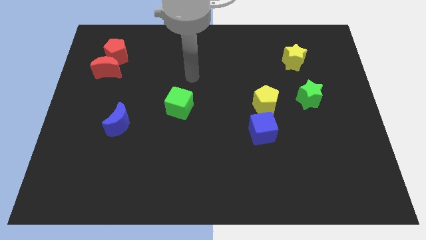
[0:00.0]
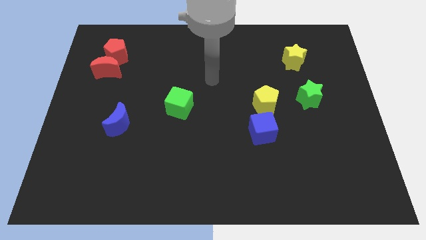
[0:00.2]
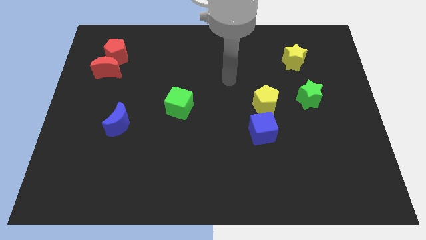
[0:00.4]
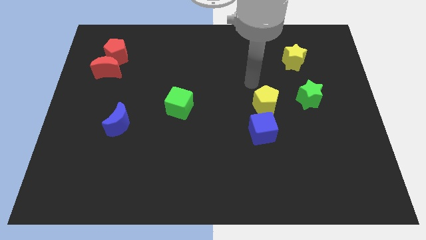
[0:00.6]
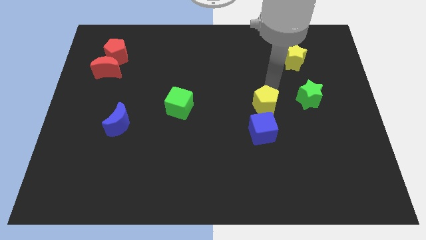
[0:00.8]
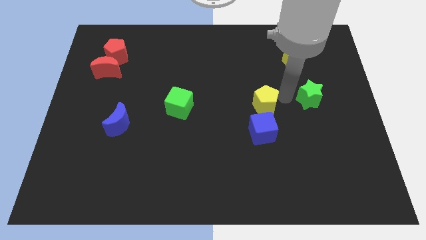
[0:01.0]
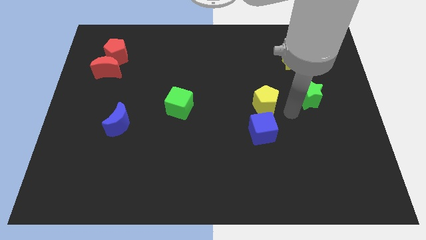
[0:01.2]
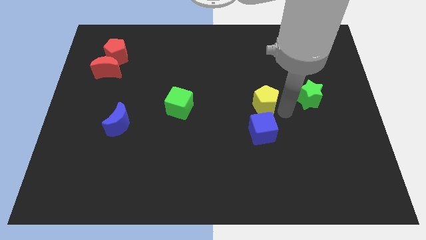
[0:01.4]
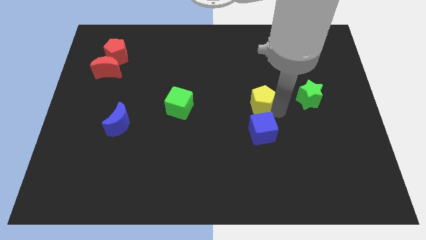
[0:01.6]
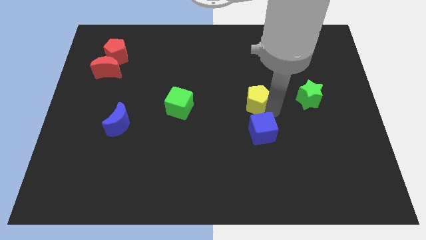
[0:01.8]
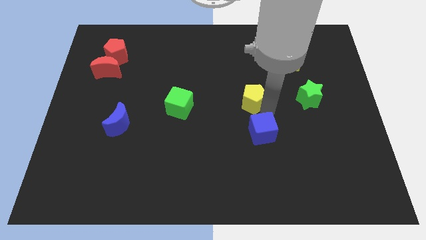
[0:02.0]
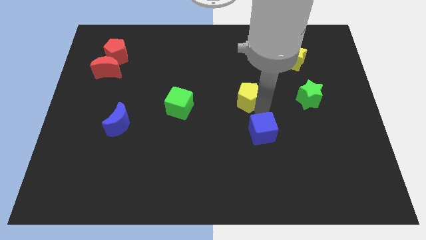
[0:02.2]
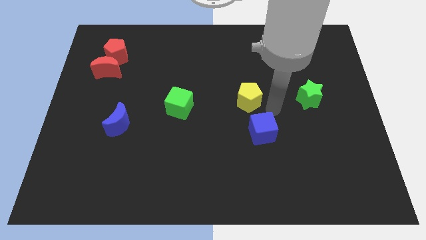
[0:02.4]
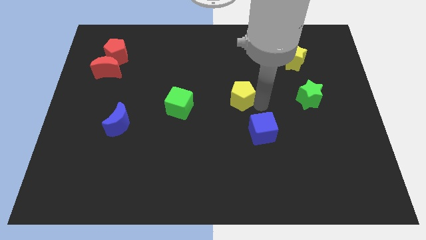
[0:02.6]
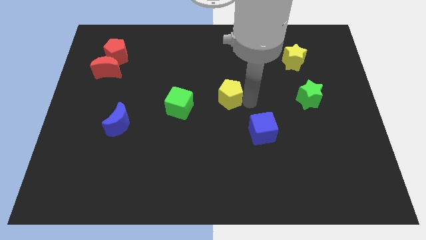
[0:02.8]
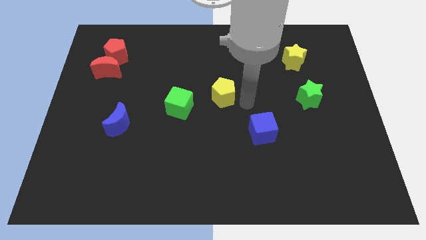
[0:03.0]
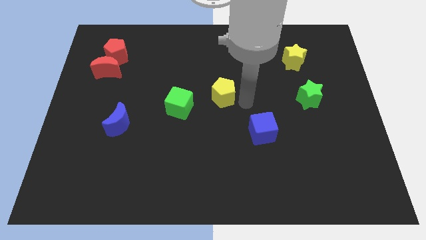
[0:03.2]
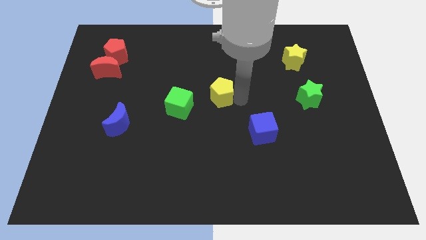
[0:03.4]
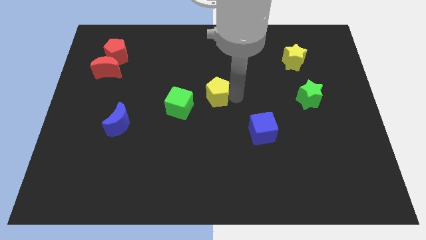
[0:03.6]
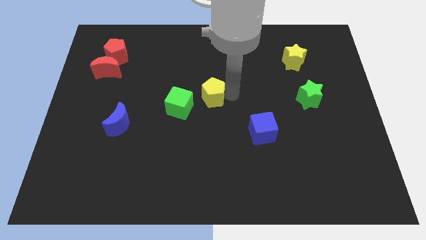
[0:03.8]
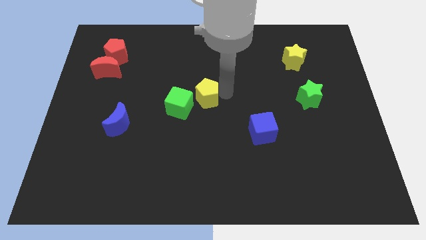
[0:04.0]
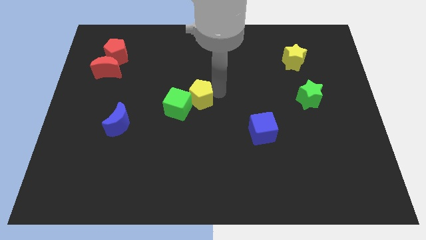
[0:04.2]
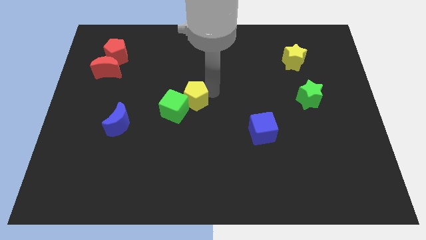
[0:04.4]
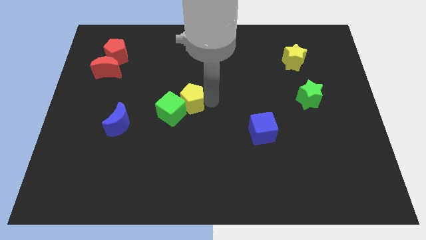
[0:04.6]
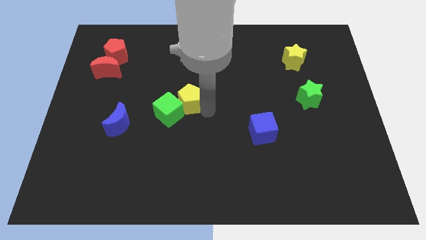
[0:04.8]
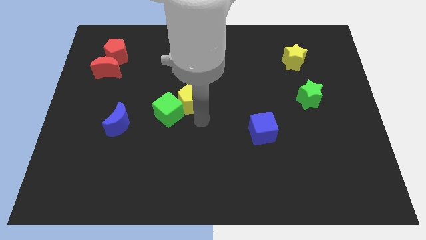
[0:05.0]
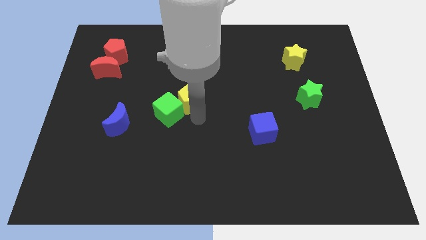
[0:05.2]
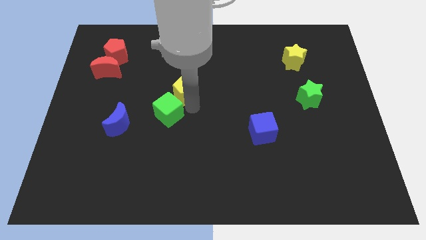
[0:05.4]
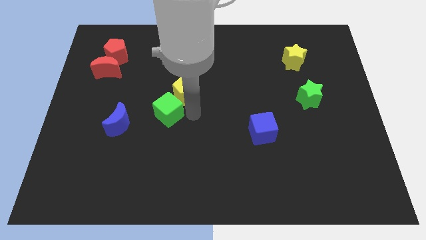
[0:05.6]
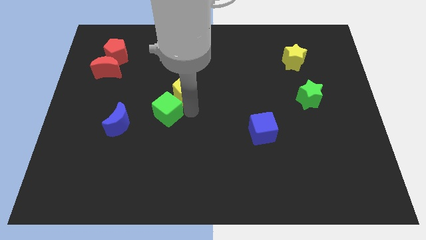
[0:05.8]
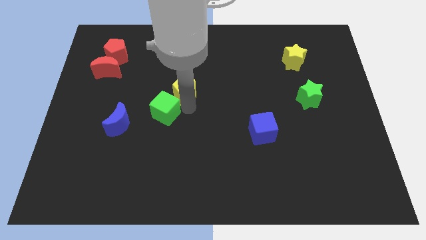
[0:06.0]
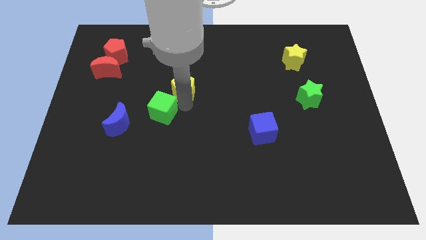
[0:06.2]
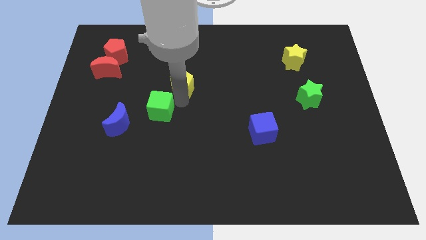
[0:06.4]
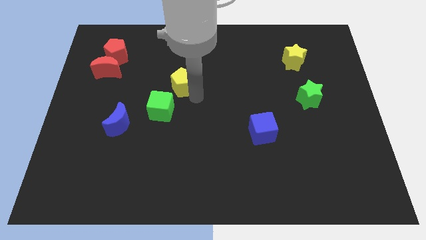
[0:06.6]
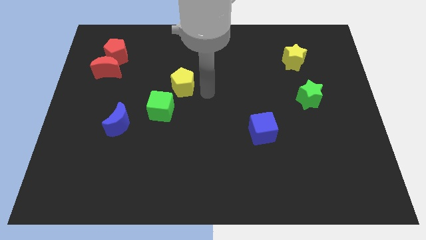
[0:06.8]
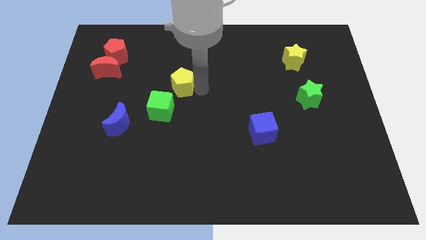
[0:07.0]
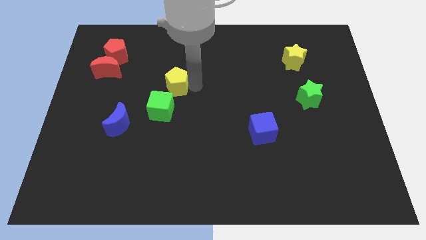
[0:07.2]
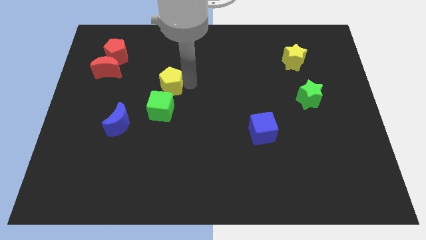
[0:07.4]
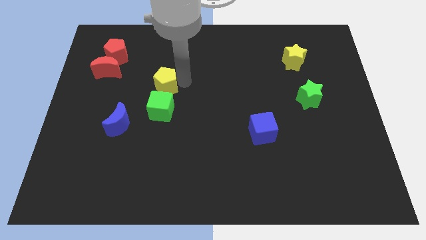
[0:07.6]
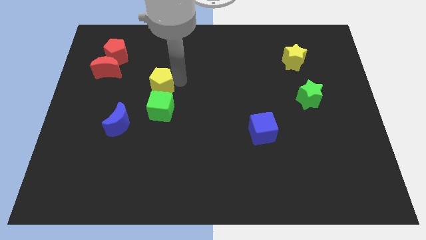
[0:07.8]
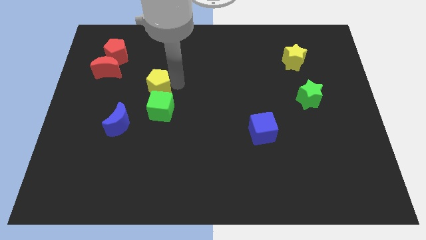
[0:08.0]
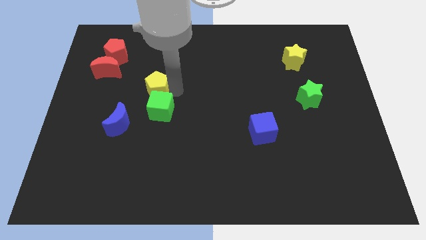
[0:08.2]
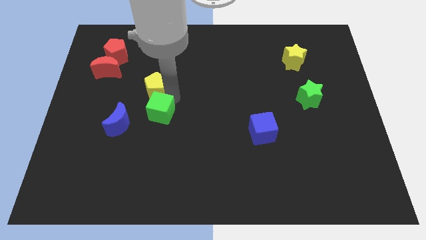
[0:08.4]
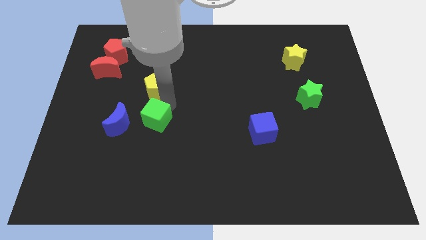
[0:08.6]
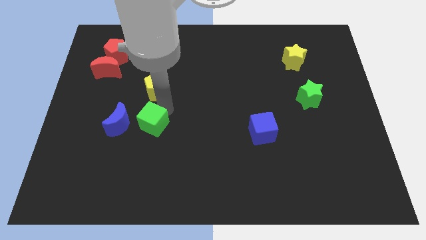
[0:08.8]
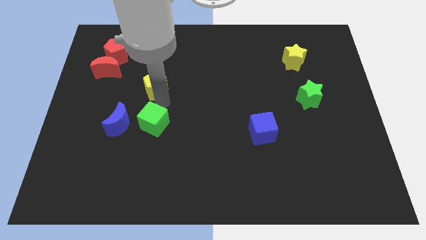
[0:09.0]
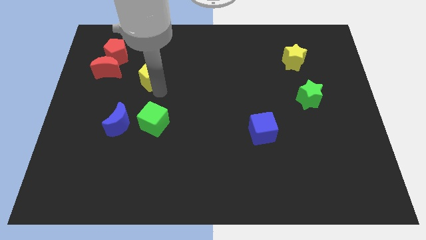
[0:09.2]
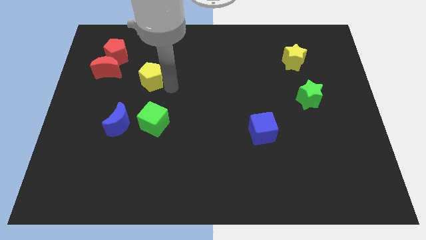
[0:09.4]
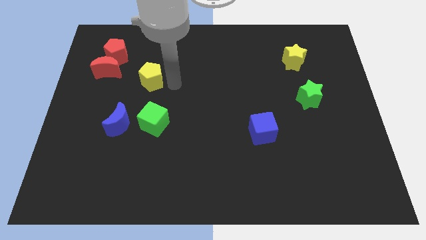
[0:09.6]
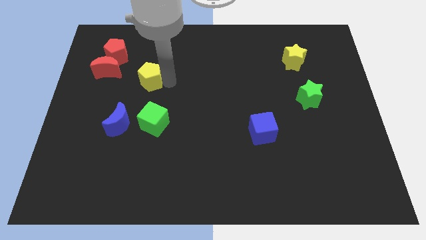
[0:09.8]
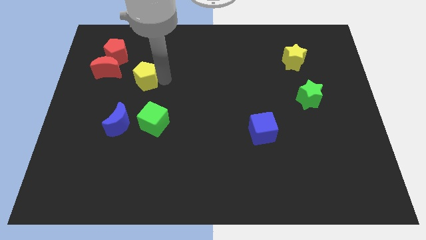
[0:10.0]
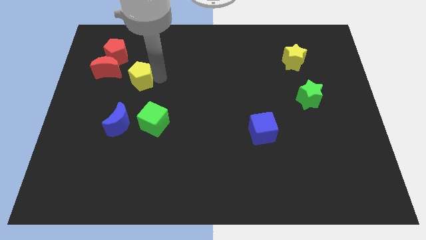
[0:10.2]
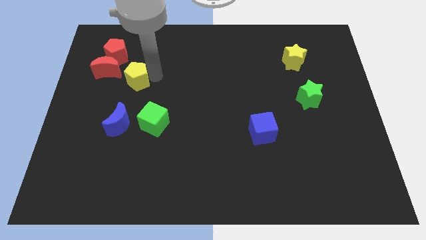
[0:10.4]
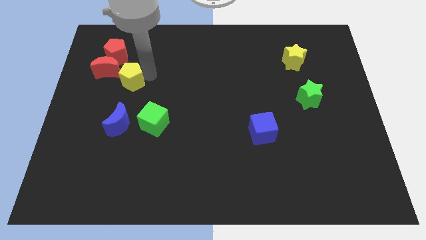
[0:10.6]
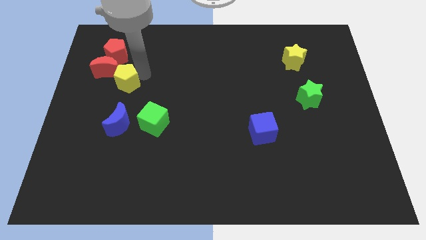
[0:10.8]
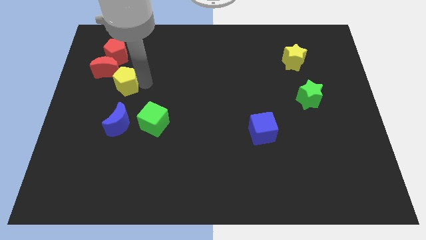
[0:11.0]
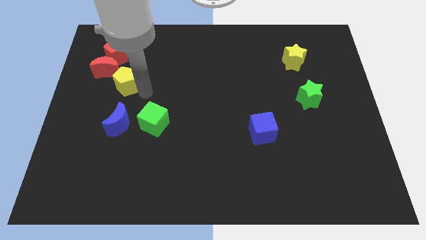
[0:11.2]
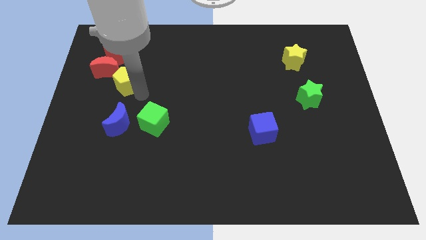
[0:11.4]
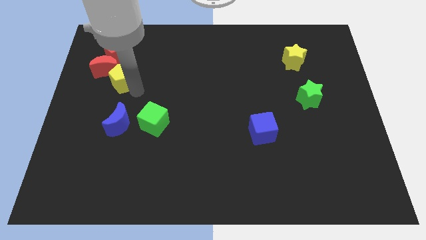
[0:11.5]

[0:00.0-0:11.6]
put the yellow pentagon to the red moon

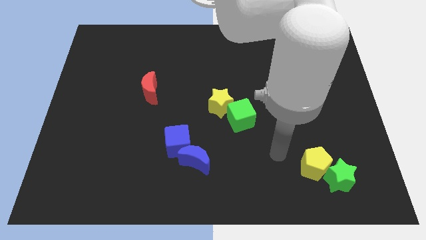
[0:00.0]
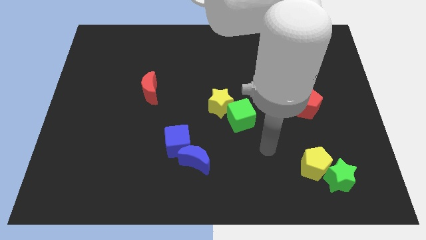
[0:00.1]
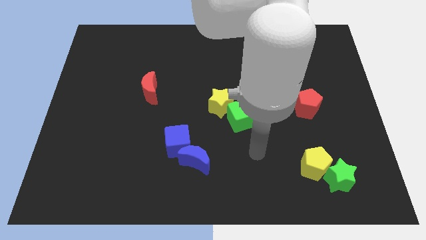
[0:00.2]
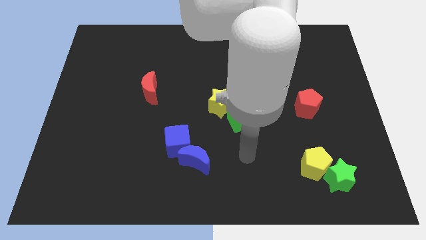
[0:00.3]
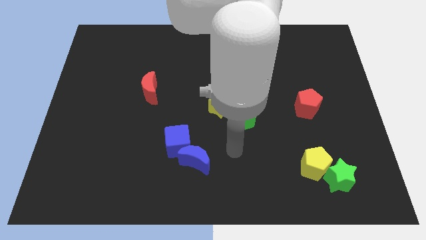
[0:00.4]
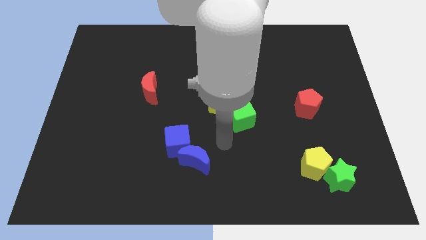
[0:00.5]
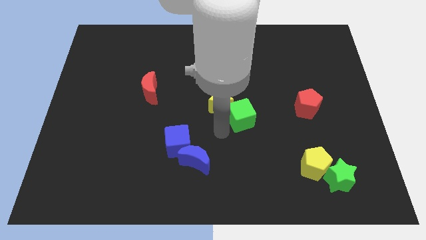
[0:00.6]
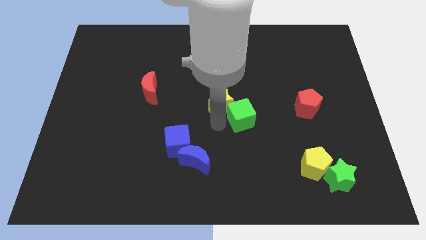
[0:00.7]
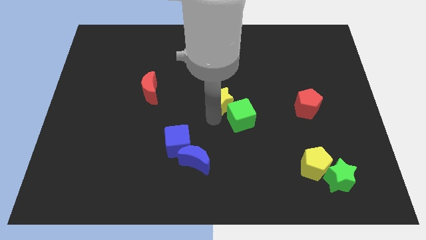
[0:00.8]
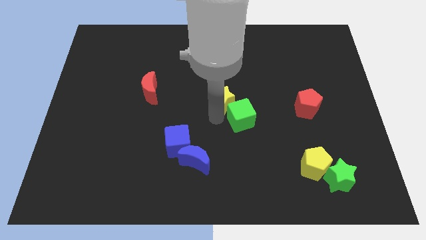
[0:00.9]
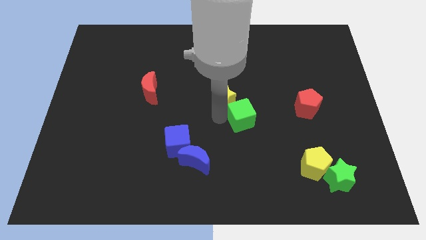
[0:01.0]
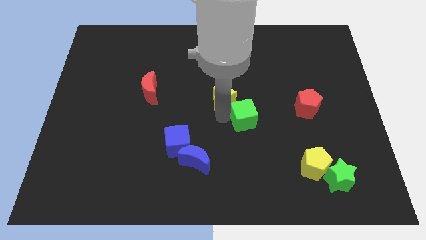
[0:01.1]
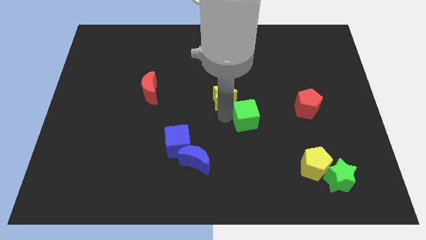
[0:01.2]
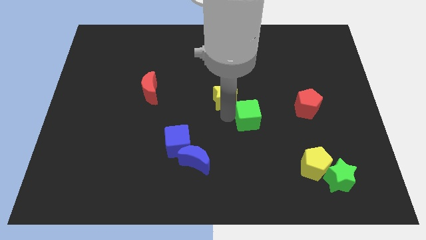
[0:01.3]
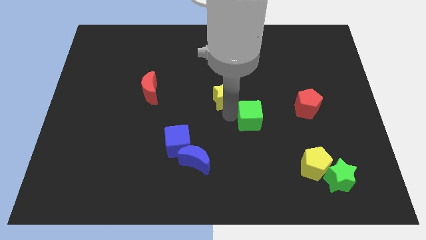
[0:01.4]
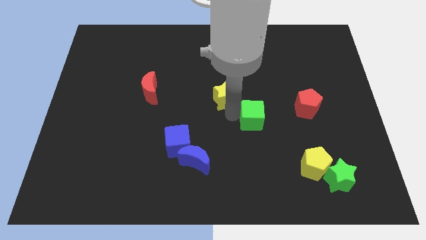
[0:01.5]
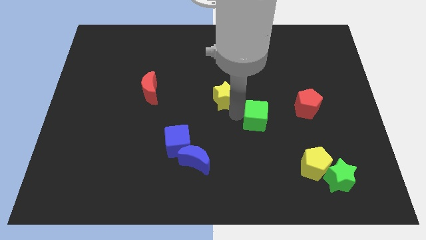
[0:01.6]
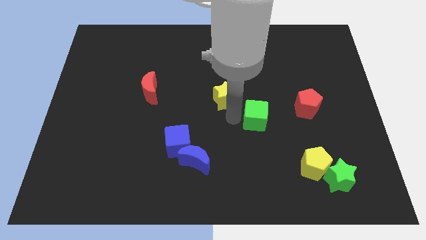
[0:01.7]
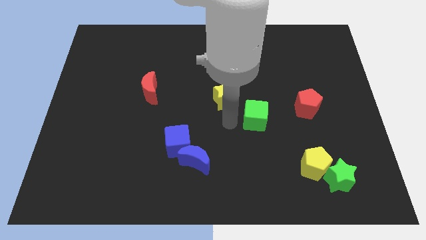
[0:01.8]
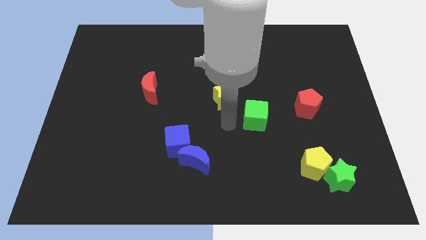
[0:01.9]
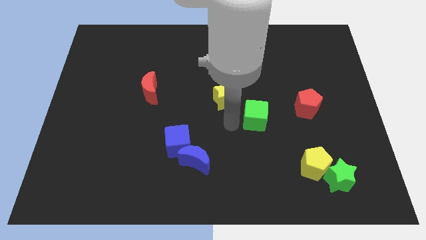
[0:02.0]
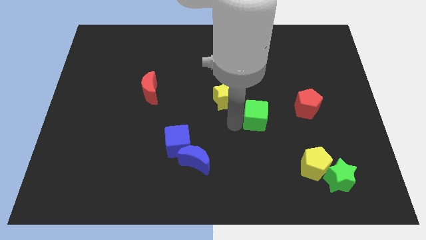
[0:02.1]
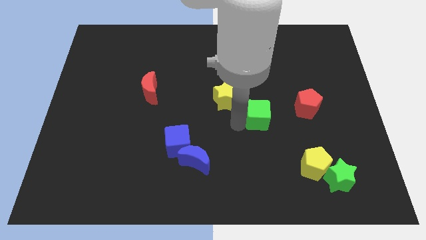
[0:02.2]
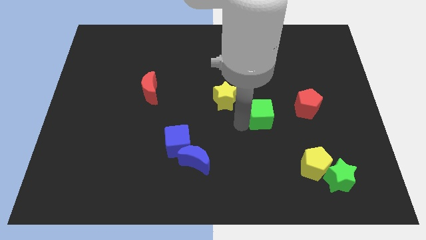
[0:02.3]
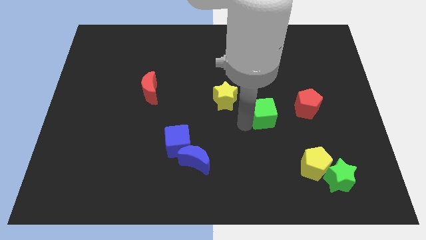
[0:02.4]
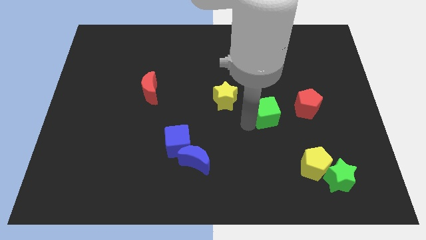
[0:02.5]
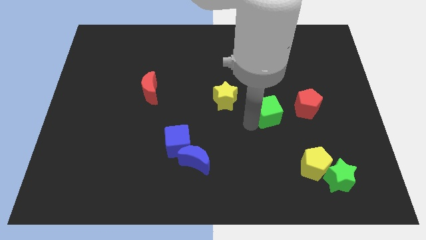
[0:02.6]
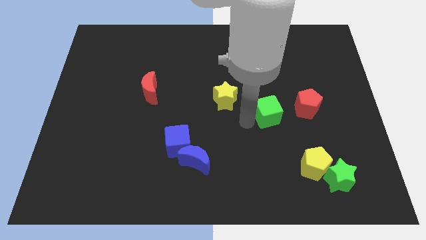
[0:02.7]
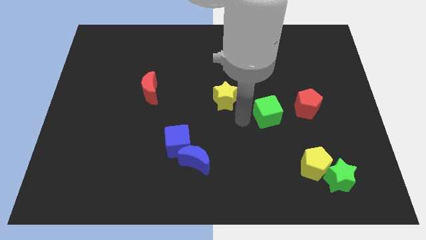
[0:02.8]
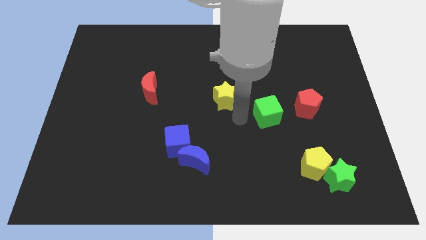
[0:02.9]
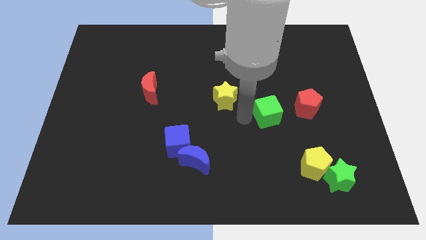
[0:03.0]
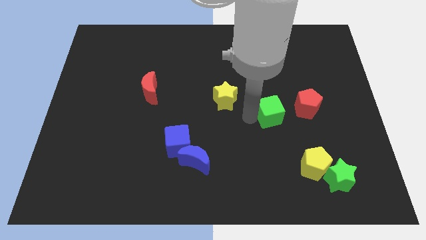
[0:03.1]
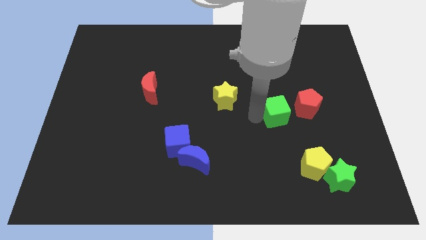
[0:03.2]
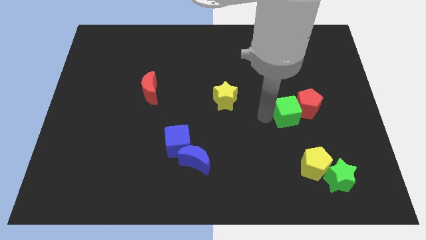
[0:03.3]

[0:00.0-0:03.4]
slide the green cube next to the red pentagon
